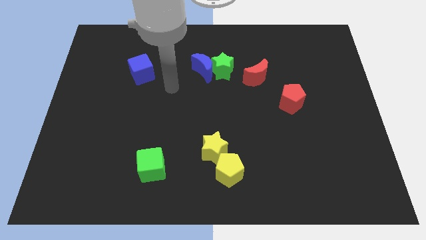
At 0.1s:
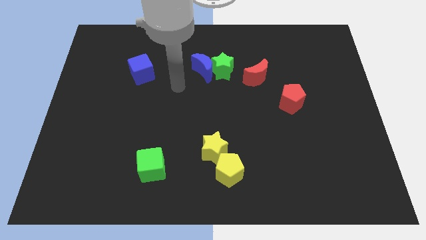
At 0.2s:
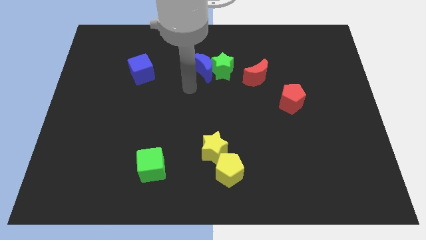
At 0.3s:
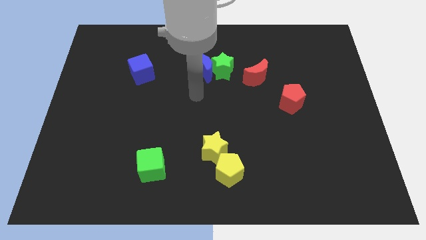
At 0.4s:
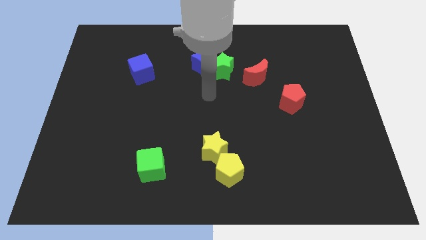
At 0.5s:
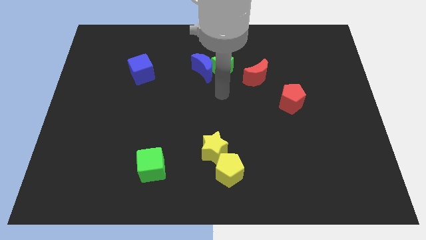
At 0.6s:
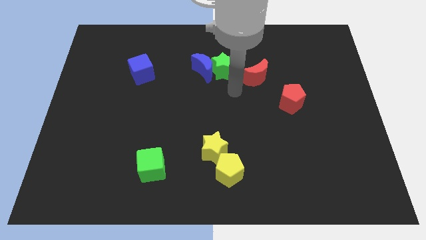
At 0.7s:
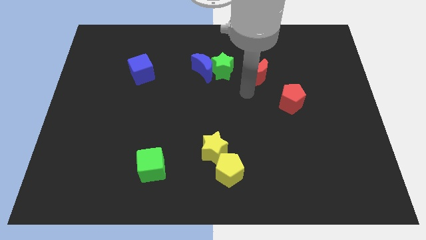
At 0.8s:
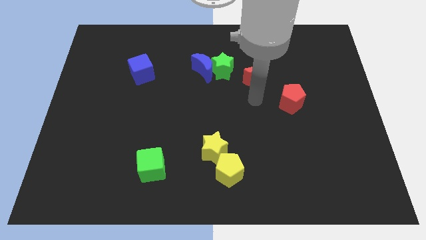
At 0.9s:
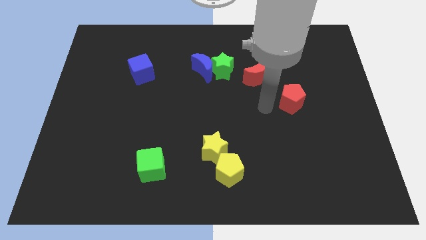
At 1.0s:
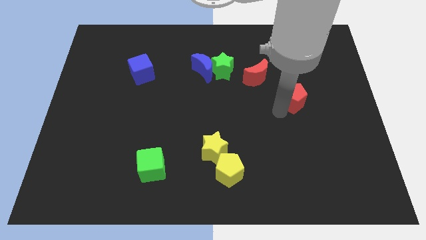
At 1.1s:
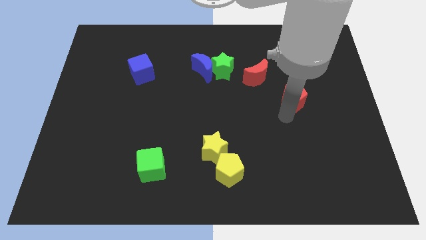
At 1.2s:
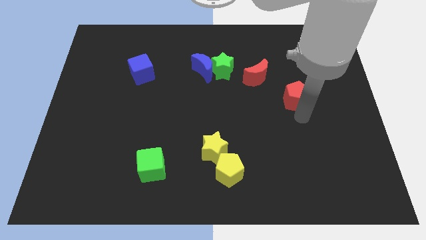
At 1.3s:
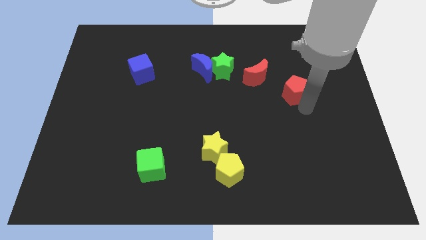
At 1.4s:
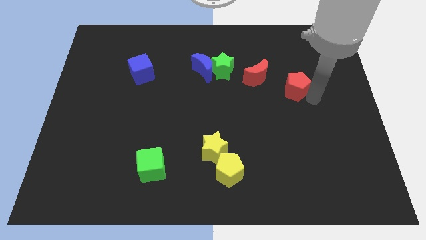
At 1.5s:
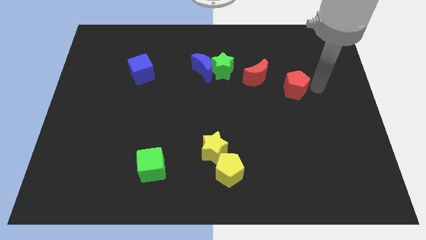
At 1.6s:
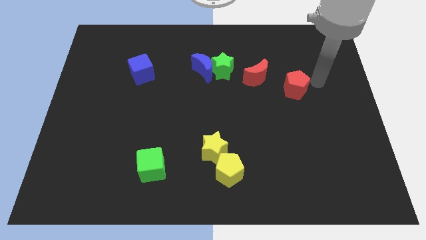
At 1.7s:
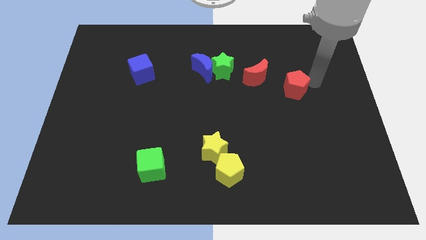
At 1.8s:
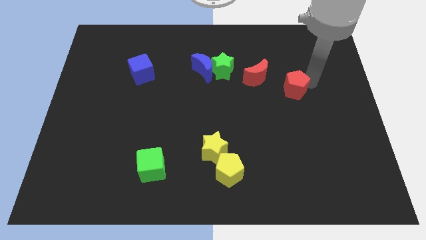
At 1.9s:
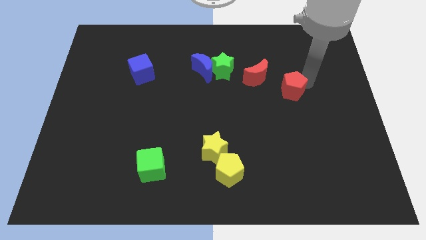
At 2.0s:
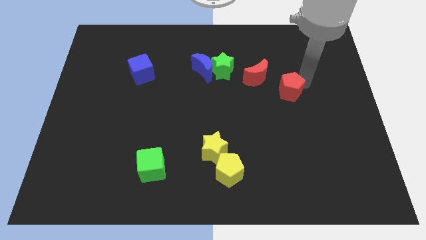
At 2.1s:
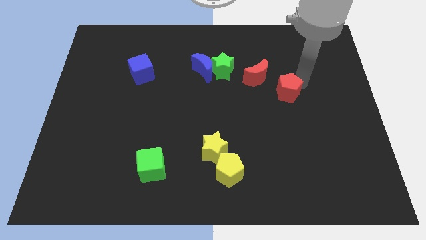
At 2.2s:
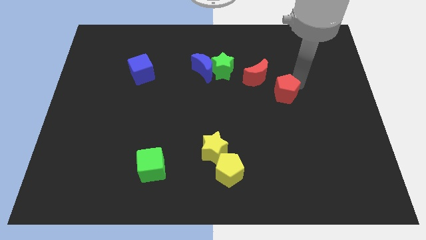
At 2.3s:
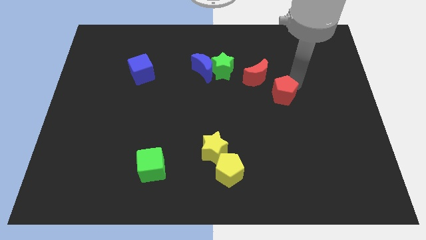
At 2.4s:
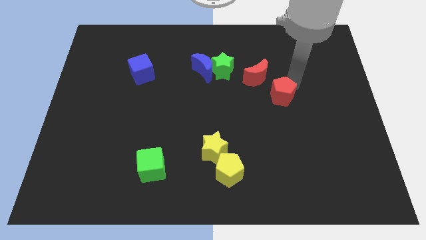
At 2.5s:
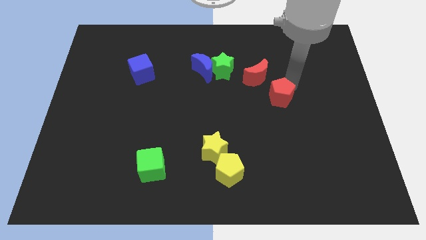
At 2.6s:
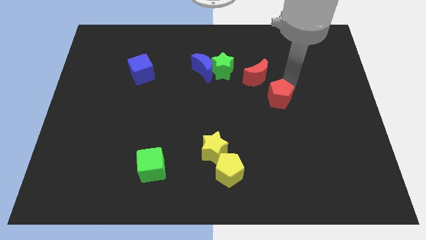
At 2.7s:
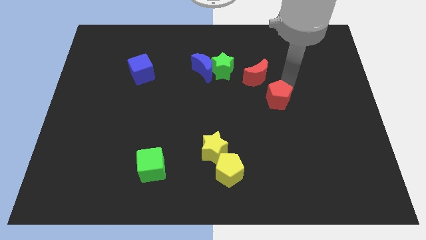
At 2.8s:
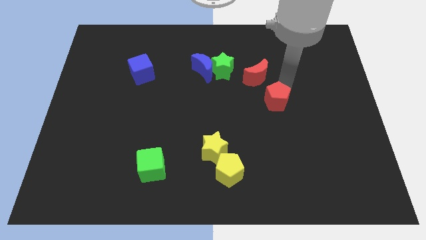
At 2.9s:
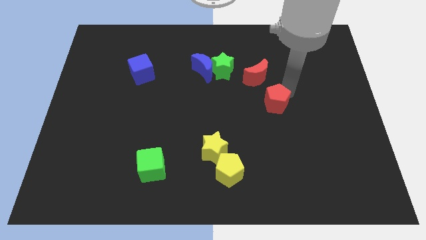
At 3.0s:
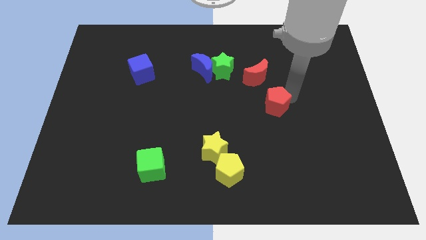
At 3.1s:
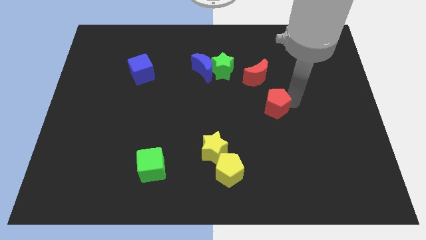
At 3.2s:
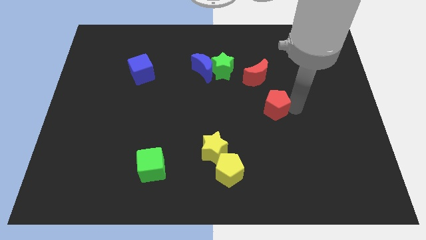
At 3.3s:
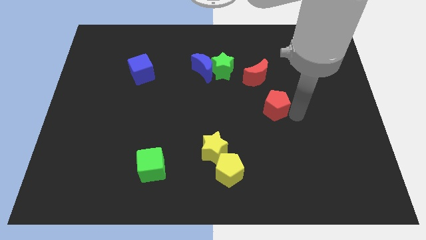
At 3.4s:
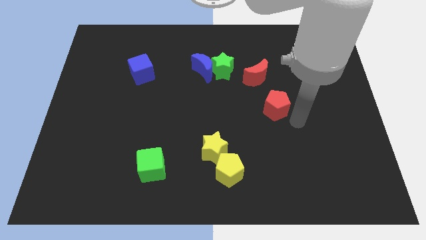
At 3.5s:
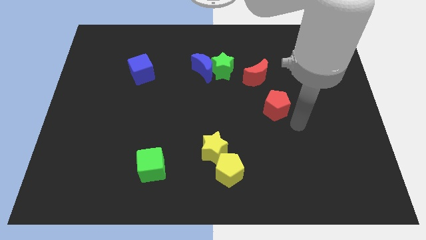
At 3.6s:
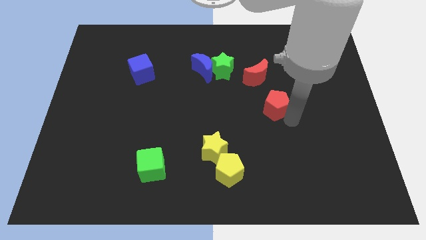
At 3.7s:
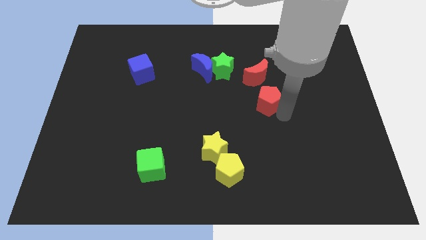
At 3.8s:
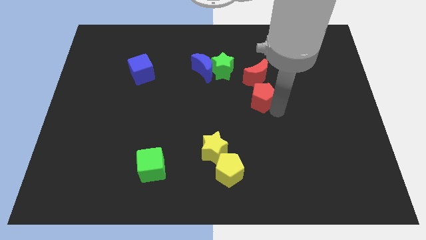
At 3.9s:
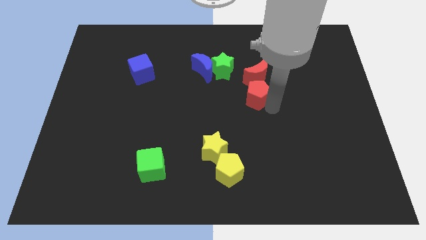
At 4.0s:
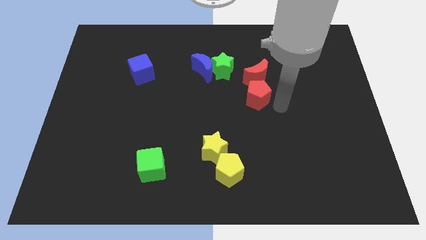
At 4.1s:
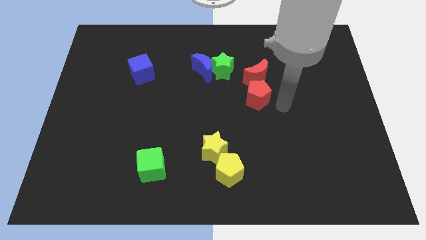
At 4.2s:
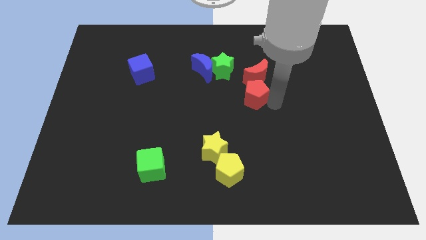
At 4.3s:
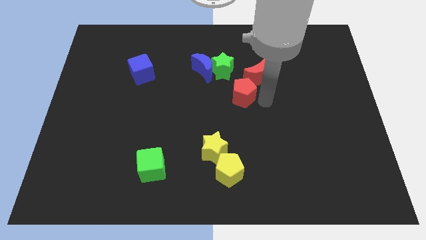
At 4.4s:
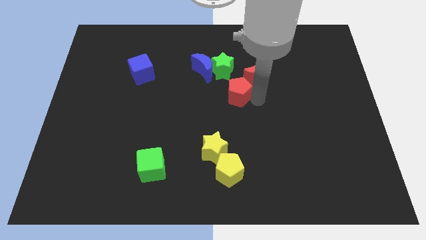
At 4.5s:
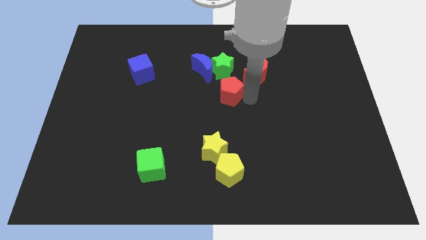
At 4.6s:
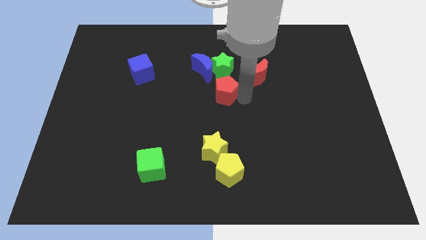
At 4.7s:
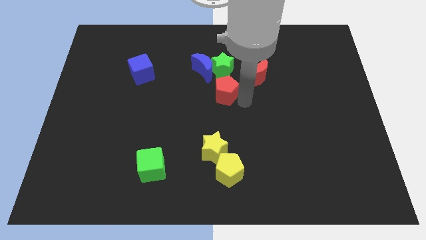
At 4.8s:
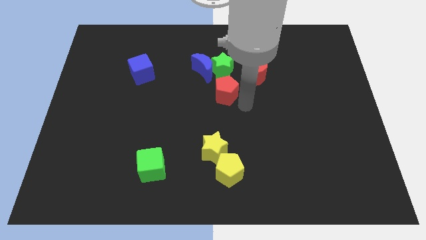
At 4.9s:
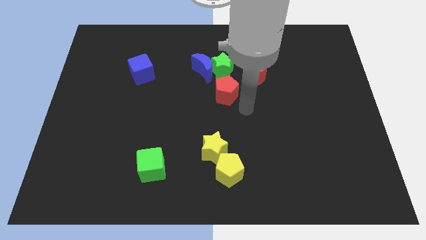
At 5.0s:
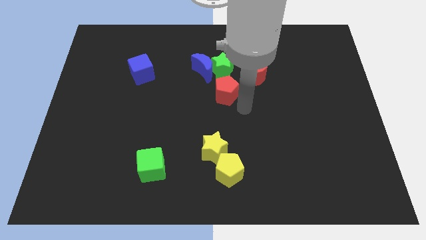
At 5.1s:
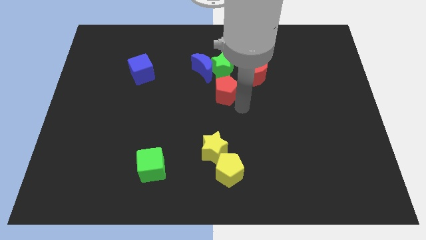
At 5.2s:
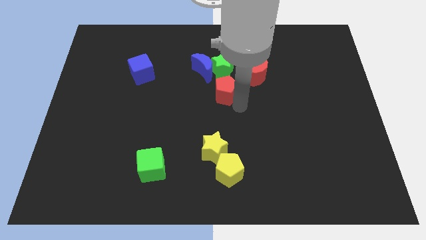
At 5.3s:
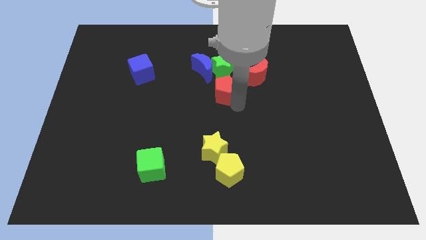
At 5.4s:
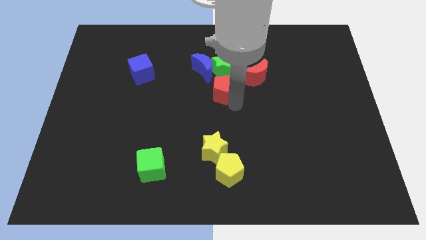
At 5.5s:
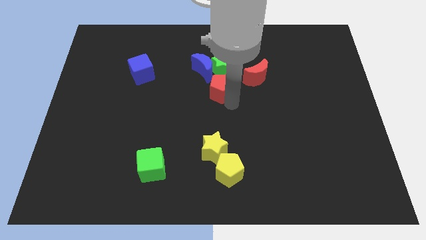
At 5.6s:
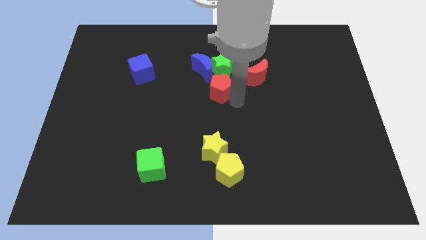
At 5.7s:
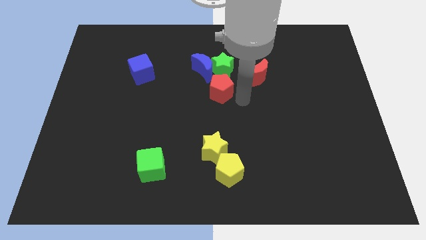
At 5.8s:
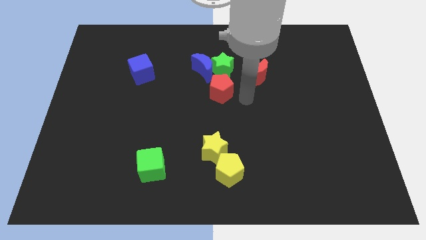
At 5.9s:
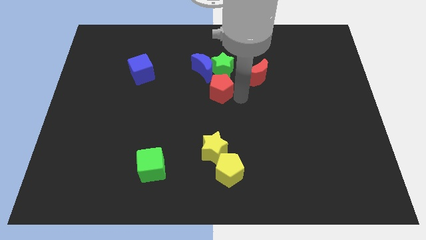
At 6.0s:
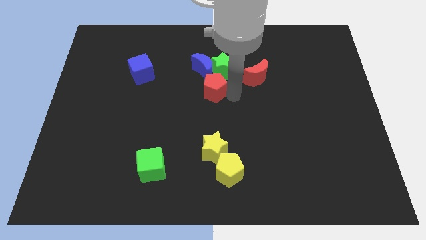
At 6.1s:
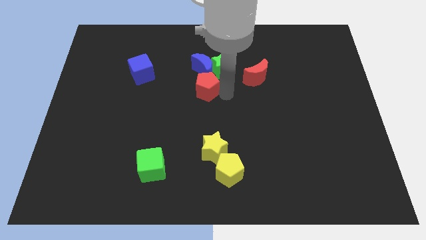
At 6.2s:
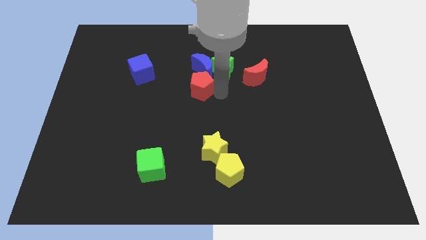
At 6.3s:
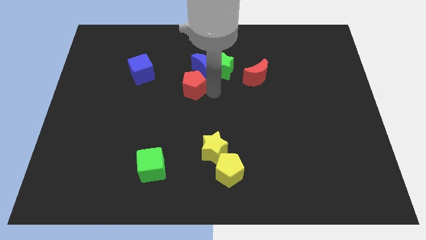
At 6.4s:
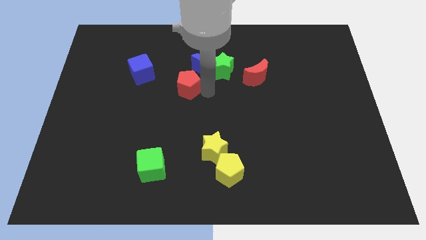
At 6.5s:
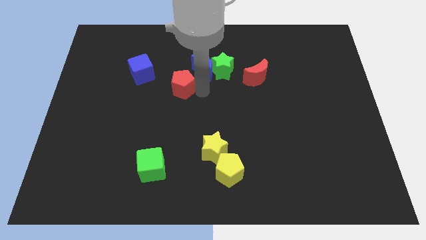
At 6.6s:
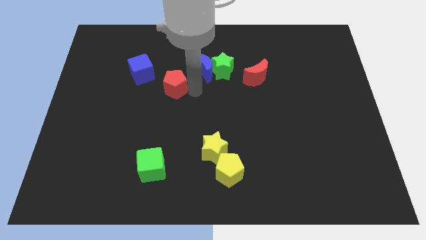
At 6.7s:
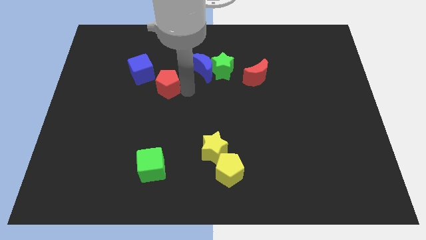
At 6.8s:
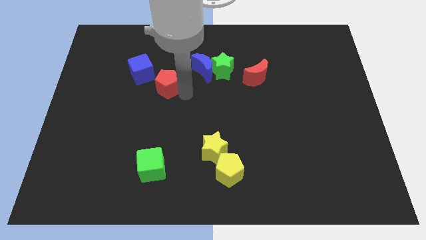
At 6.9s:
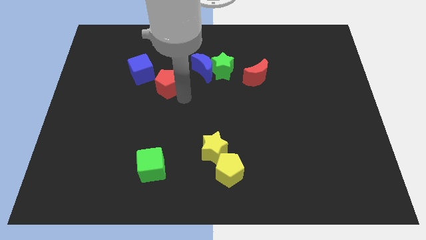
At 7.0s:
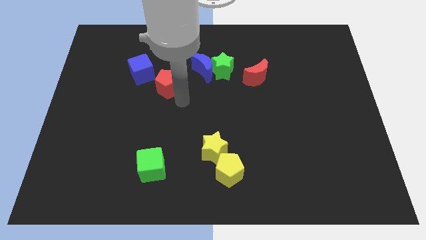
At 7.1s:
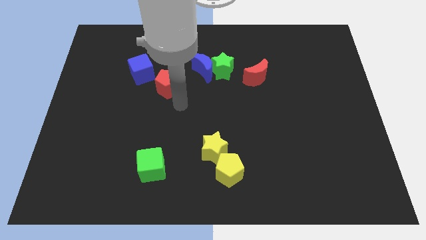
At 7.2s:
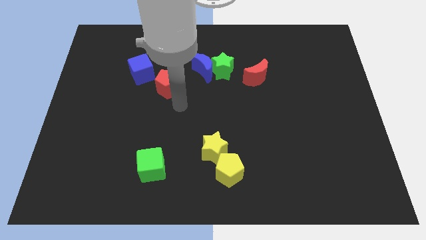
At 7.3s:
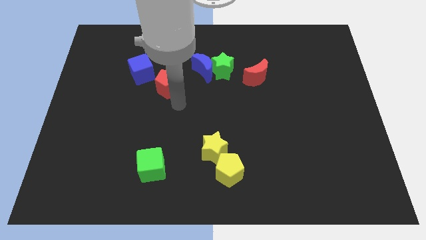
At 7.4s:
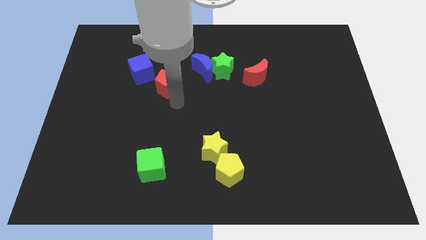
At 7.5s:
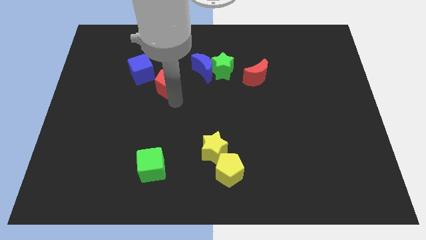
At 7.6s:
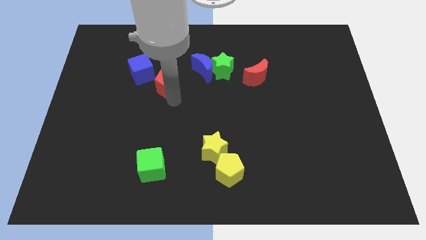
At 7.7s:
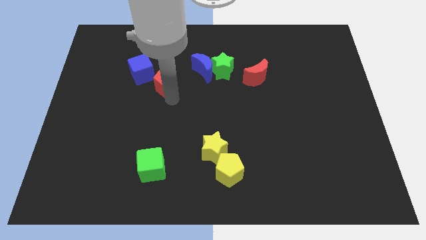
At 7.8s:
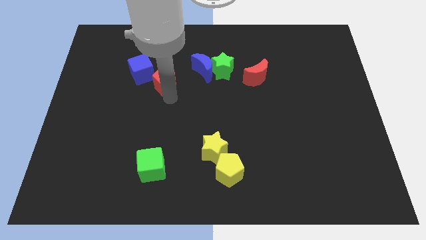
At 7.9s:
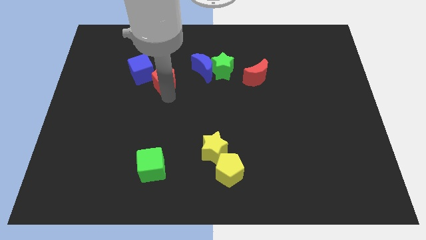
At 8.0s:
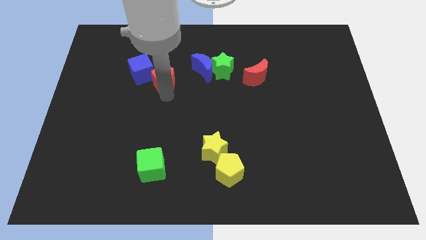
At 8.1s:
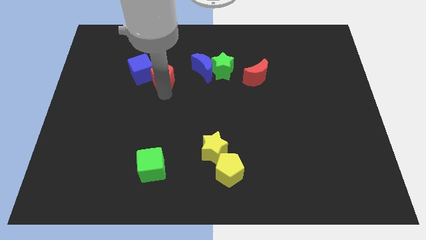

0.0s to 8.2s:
move the red pentagon next to the blue cube
